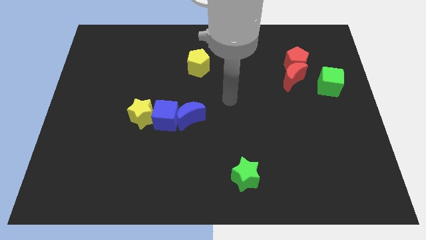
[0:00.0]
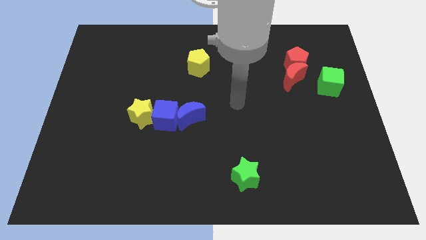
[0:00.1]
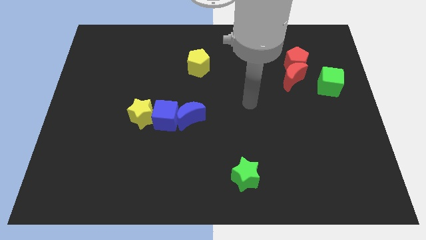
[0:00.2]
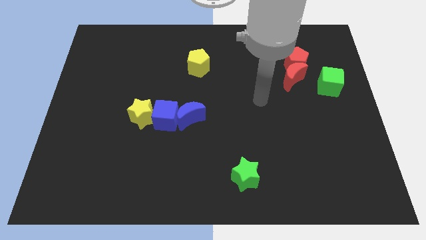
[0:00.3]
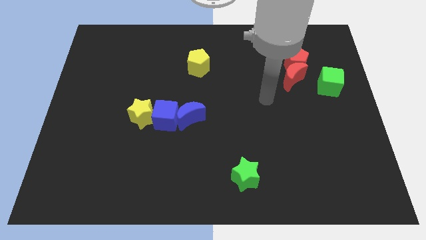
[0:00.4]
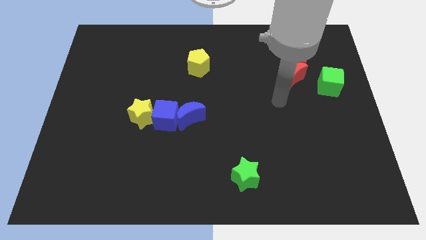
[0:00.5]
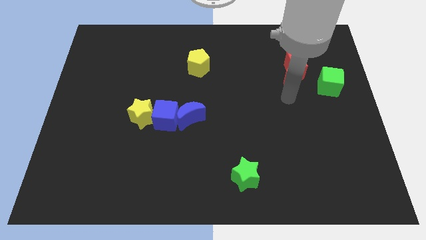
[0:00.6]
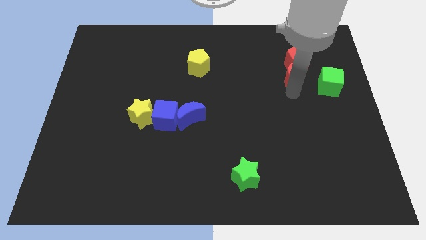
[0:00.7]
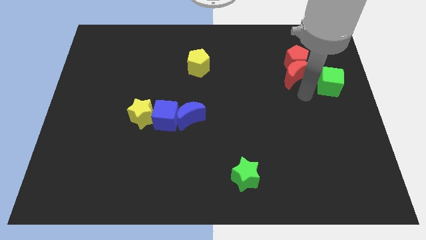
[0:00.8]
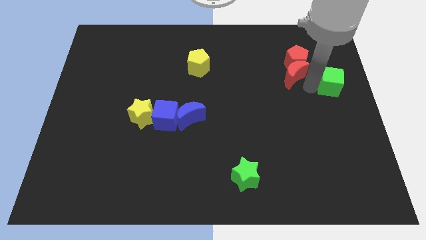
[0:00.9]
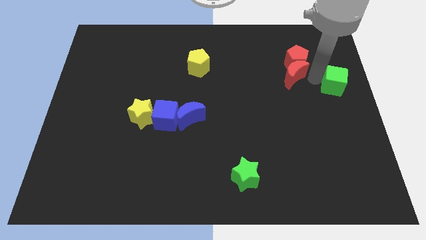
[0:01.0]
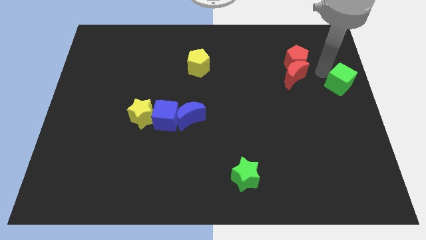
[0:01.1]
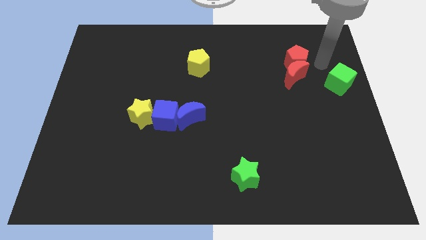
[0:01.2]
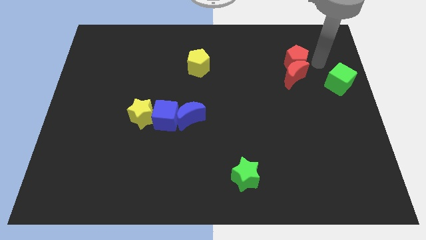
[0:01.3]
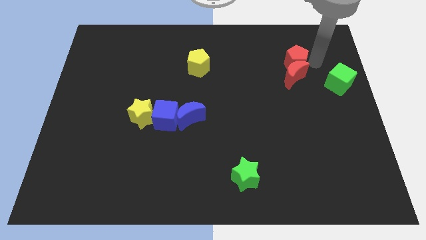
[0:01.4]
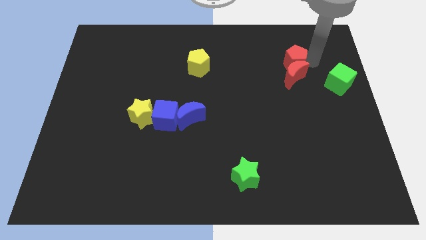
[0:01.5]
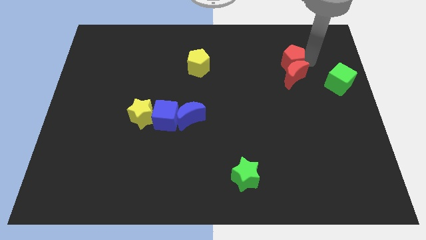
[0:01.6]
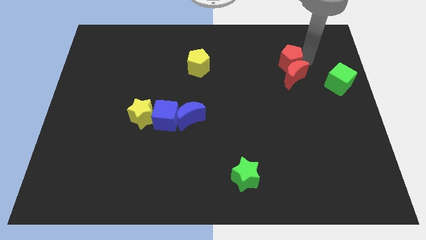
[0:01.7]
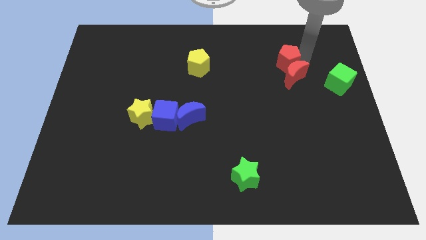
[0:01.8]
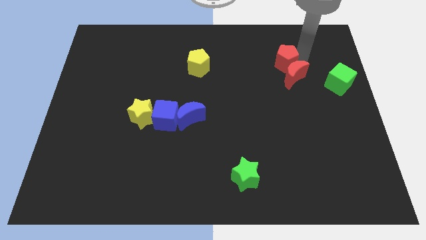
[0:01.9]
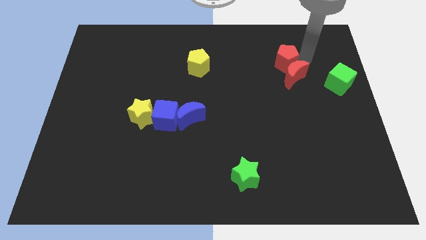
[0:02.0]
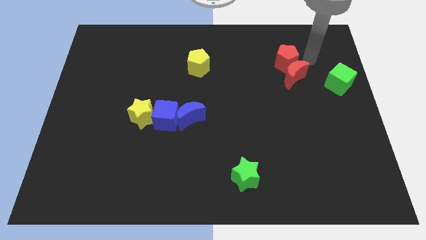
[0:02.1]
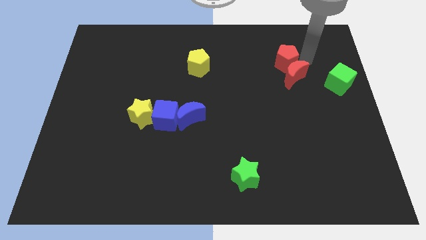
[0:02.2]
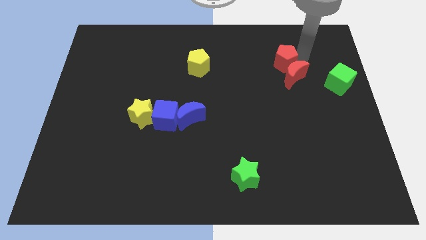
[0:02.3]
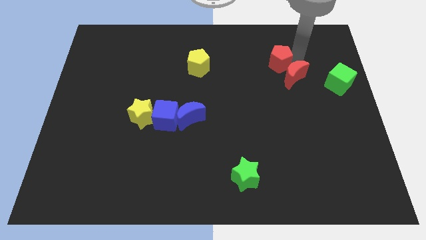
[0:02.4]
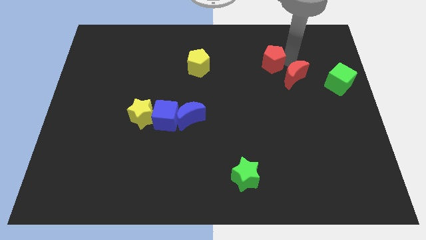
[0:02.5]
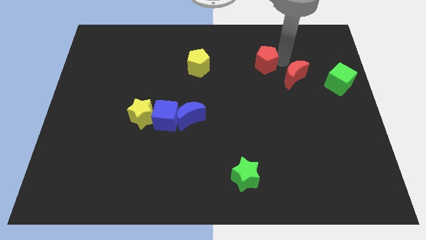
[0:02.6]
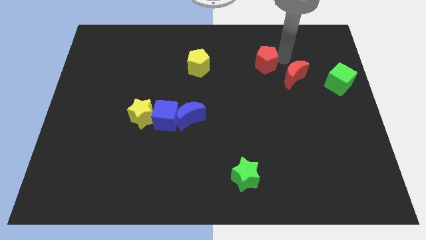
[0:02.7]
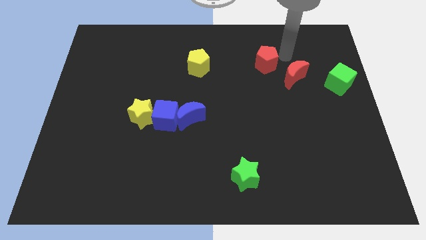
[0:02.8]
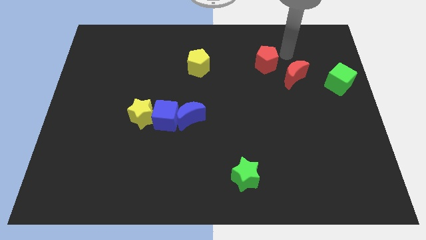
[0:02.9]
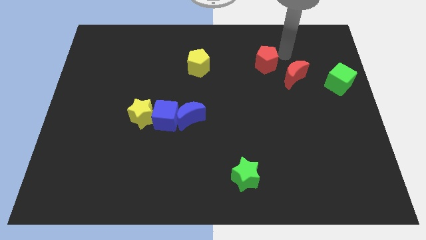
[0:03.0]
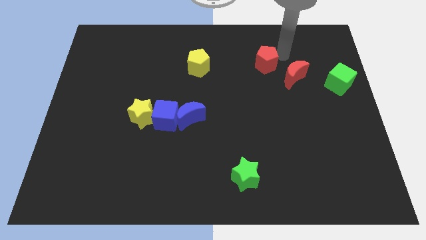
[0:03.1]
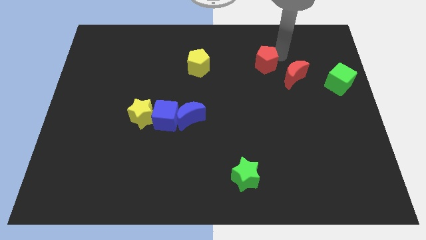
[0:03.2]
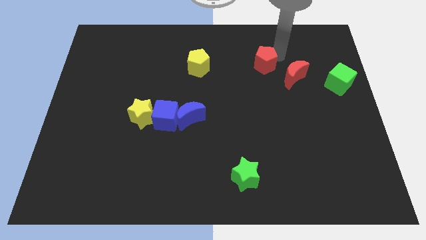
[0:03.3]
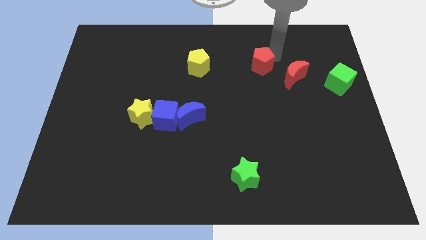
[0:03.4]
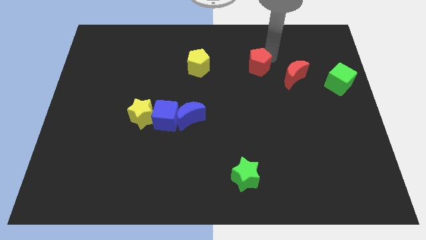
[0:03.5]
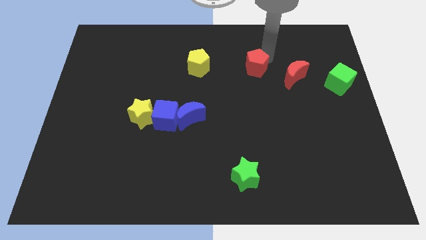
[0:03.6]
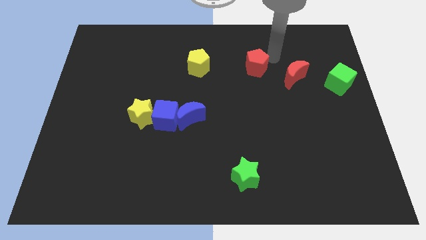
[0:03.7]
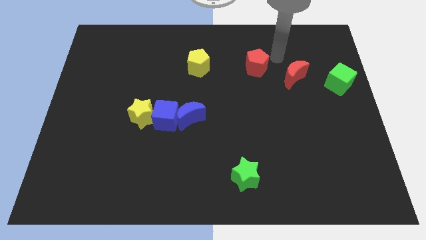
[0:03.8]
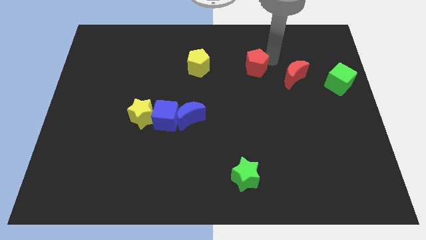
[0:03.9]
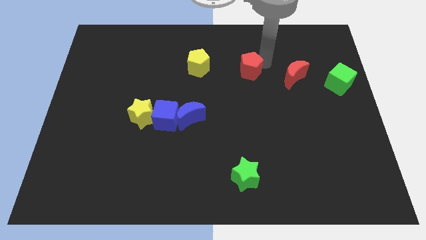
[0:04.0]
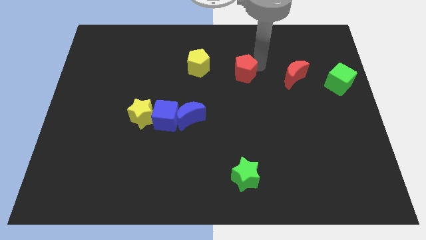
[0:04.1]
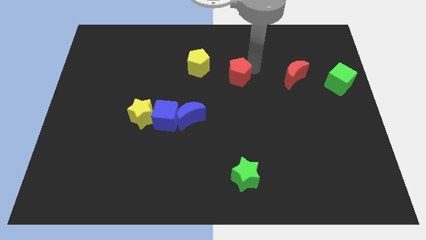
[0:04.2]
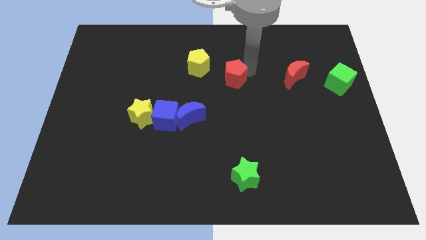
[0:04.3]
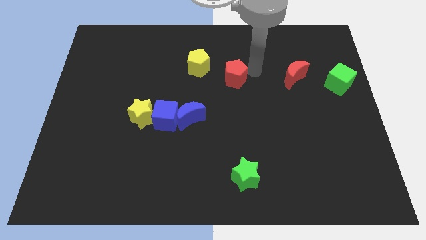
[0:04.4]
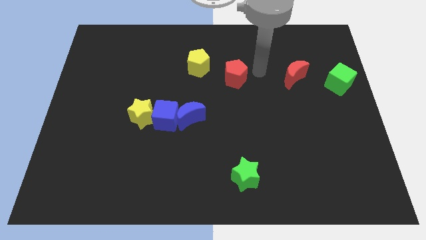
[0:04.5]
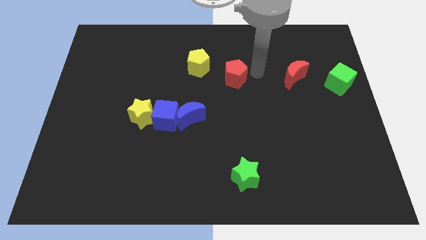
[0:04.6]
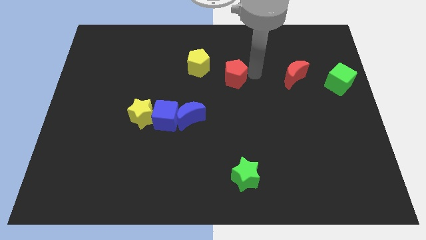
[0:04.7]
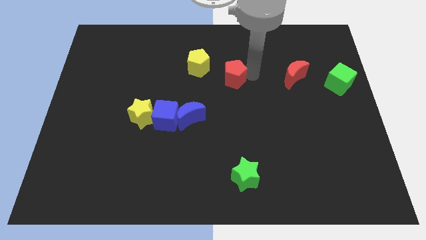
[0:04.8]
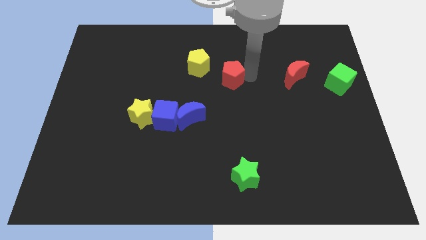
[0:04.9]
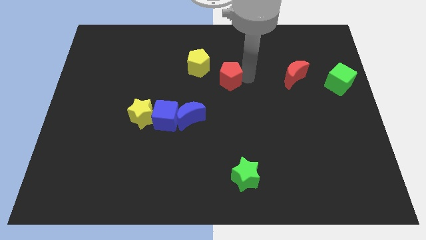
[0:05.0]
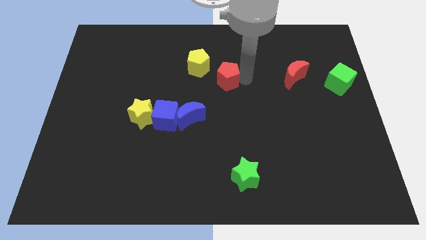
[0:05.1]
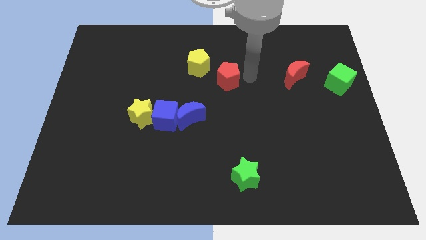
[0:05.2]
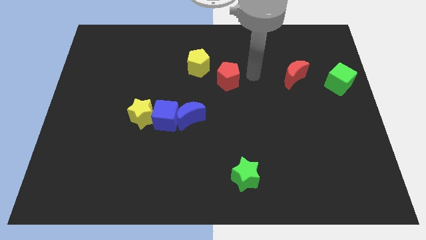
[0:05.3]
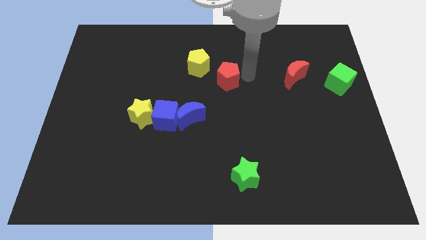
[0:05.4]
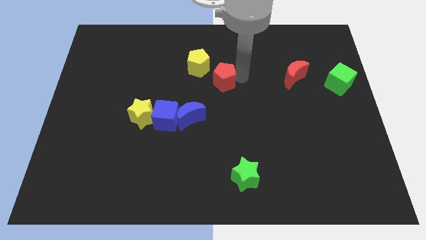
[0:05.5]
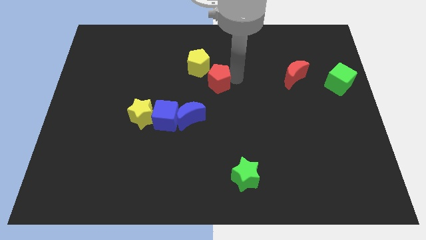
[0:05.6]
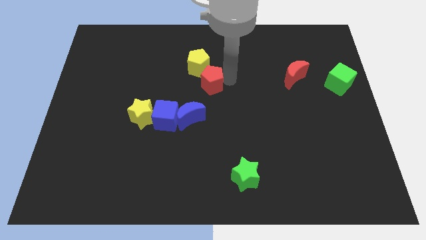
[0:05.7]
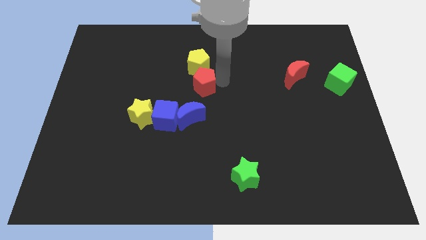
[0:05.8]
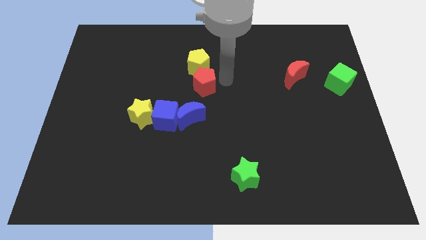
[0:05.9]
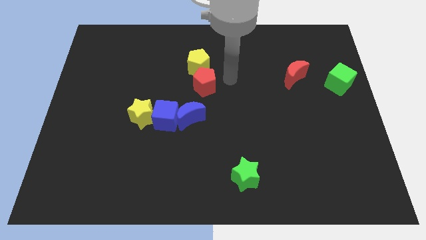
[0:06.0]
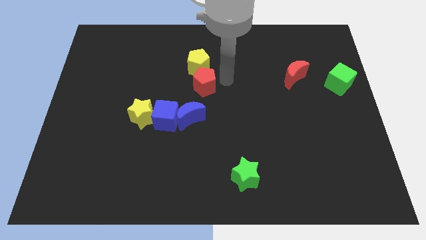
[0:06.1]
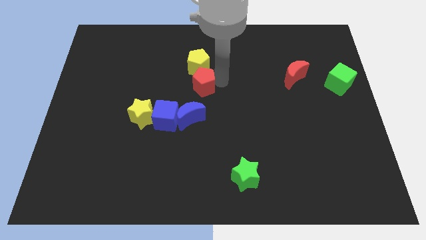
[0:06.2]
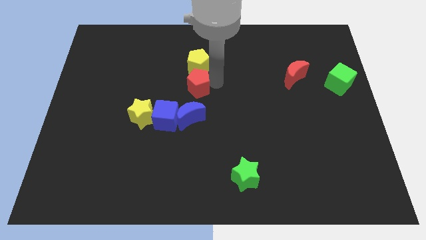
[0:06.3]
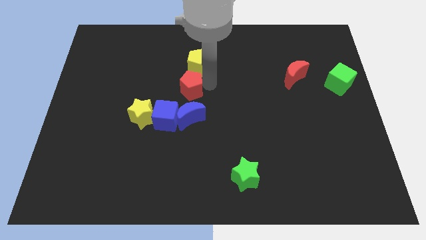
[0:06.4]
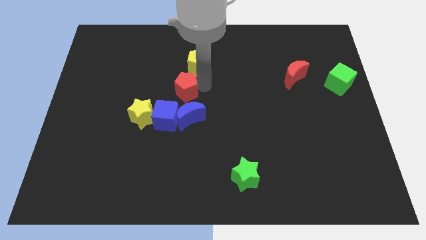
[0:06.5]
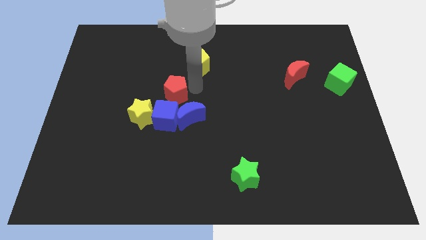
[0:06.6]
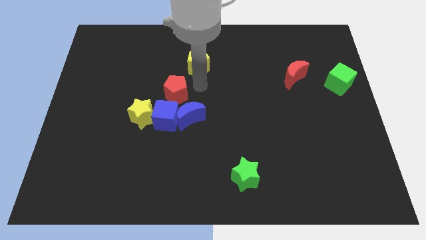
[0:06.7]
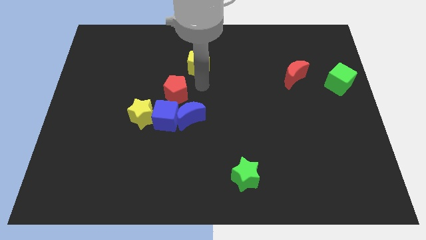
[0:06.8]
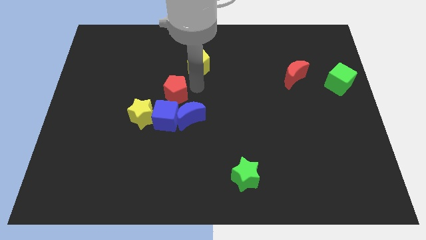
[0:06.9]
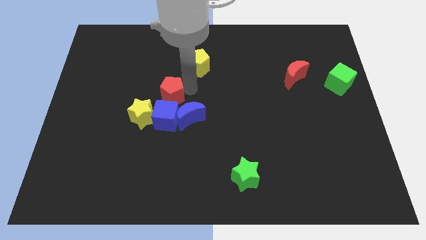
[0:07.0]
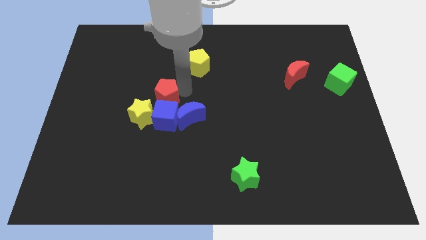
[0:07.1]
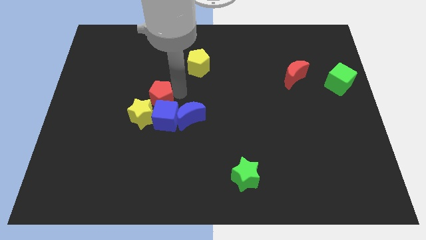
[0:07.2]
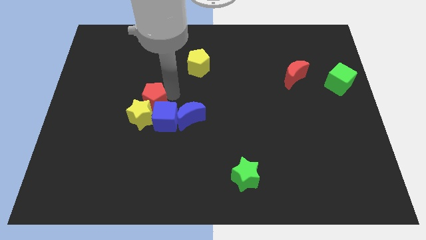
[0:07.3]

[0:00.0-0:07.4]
slide the red pentagon towards the yellow star
